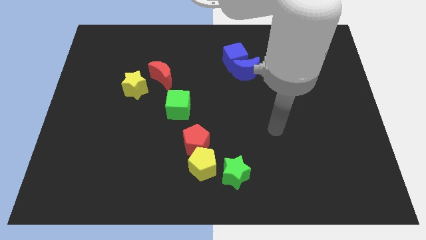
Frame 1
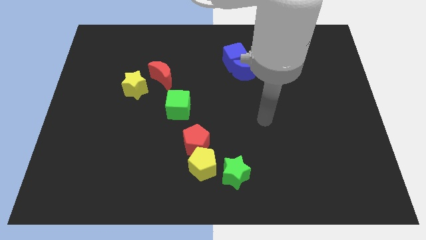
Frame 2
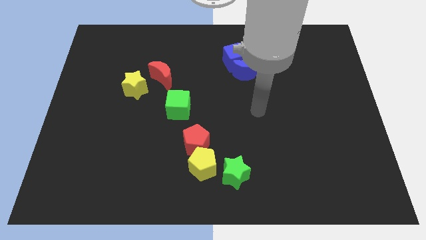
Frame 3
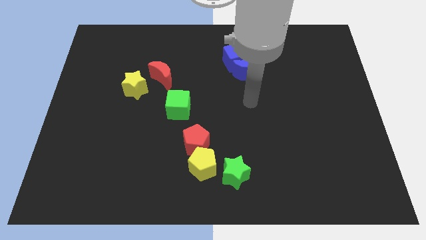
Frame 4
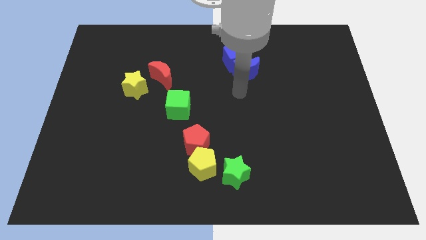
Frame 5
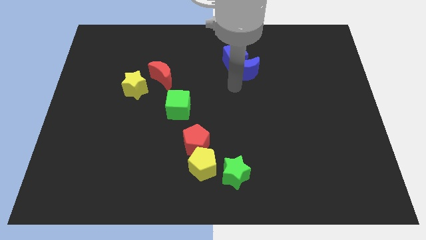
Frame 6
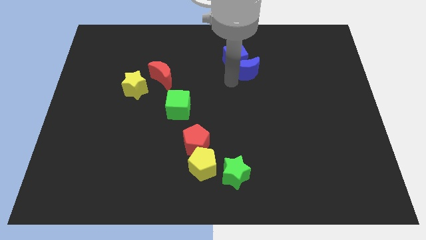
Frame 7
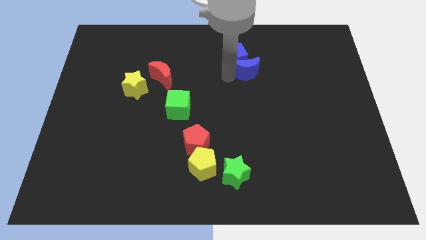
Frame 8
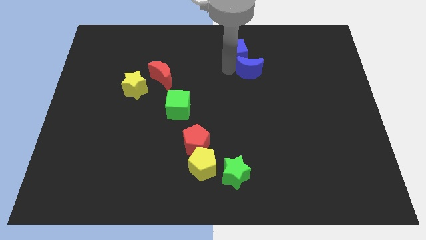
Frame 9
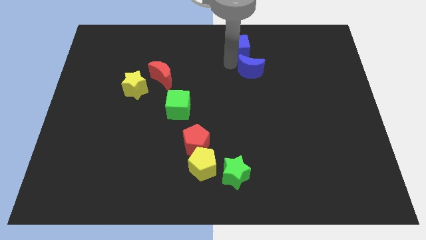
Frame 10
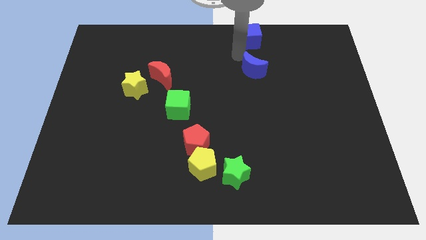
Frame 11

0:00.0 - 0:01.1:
move the blue moon away from the blue cube

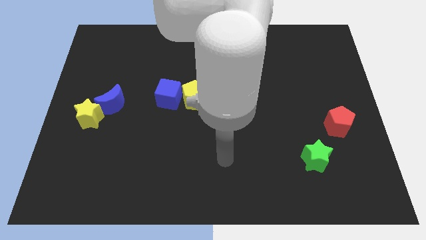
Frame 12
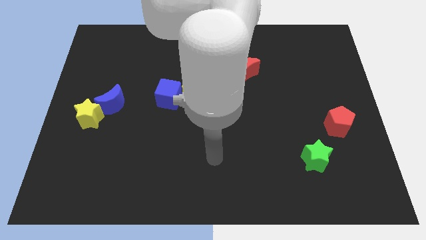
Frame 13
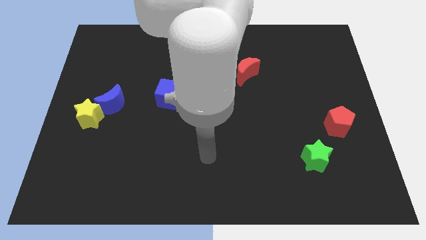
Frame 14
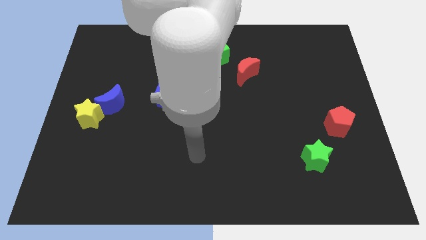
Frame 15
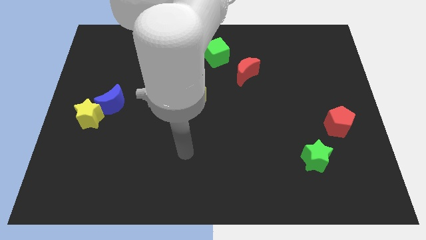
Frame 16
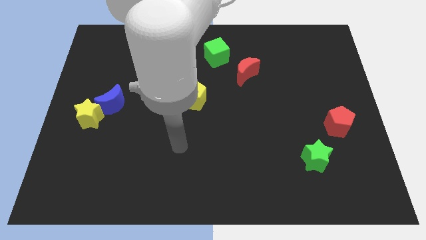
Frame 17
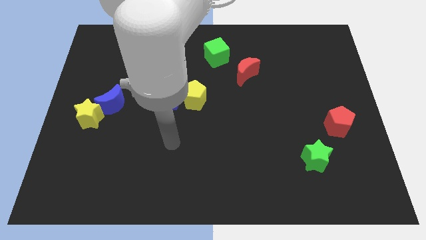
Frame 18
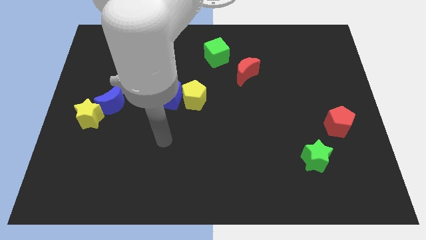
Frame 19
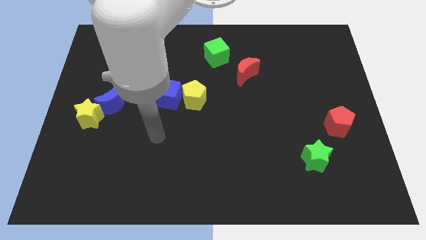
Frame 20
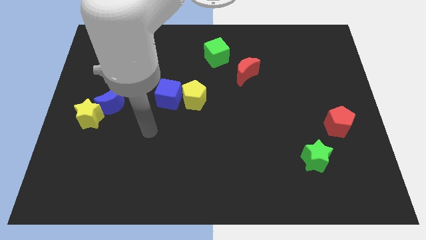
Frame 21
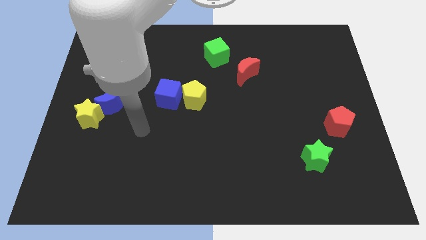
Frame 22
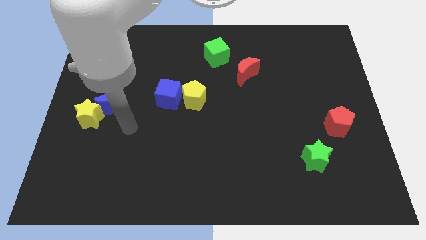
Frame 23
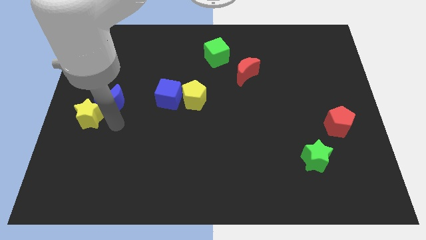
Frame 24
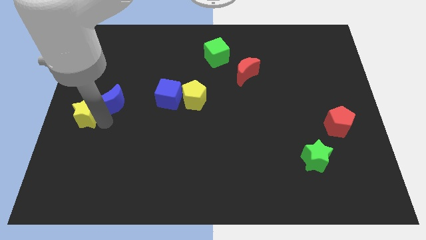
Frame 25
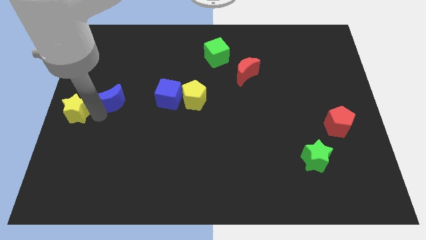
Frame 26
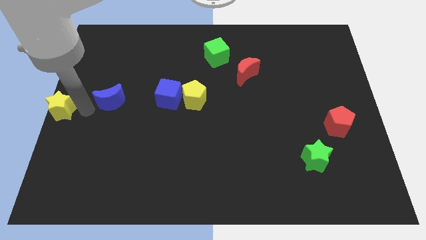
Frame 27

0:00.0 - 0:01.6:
separate the blue moon from the yellow star

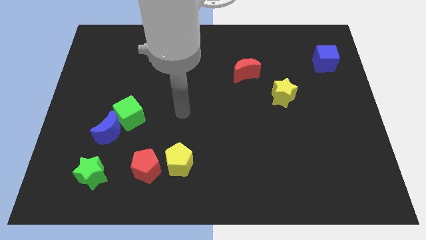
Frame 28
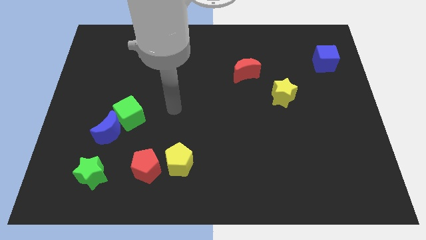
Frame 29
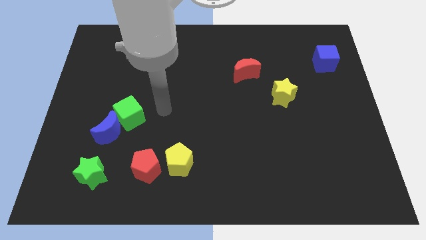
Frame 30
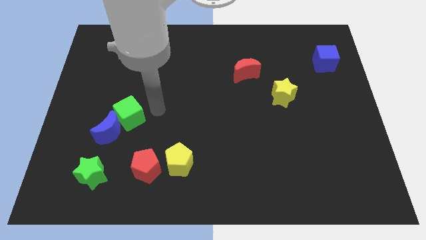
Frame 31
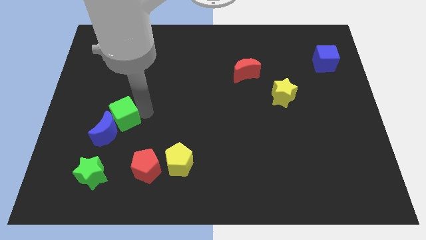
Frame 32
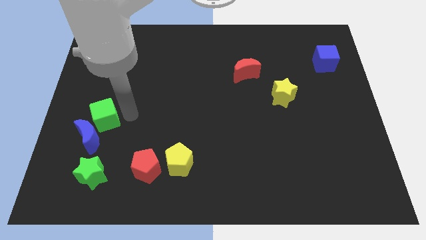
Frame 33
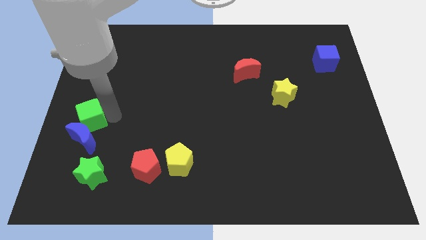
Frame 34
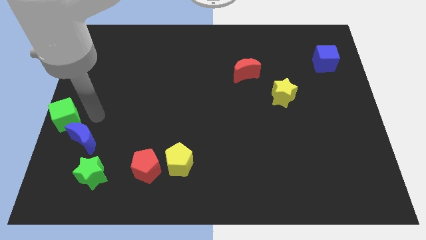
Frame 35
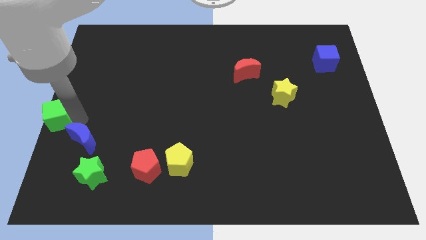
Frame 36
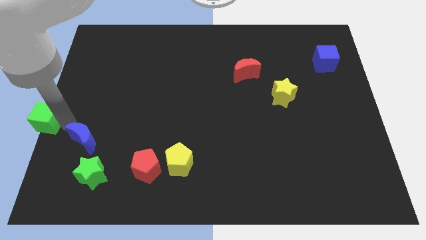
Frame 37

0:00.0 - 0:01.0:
pull the blue moon apart from the green cube

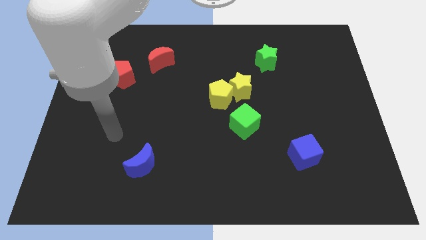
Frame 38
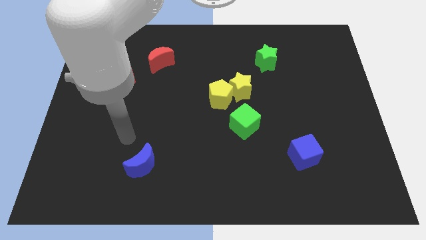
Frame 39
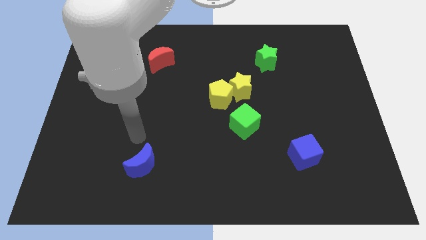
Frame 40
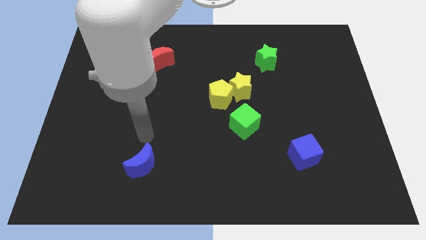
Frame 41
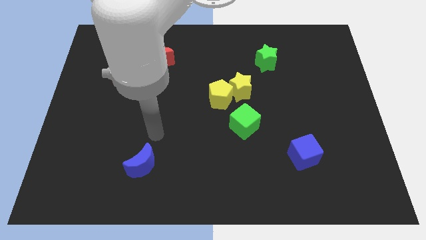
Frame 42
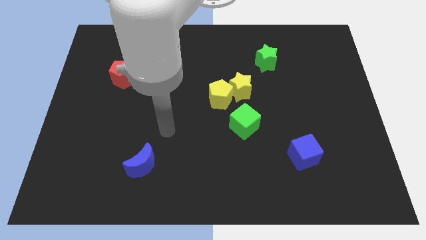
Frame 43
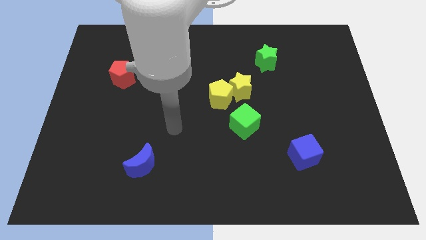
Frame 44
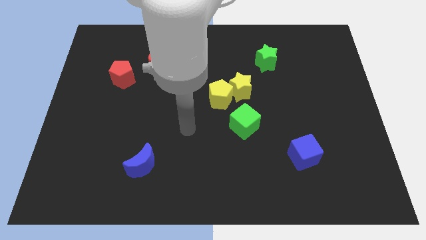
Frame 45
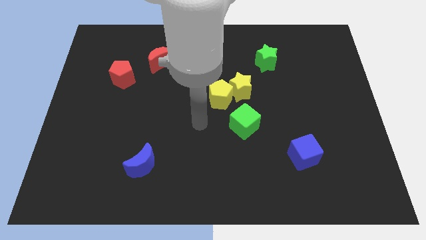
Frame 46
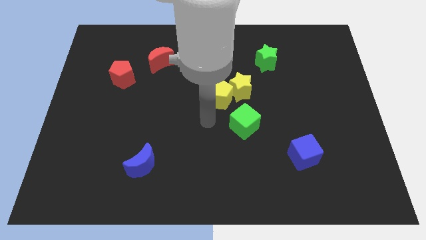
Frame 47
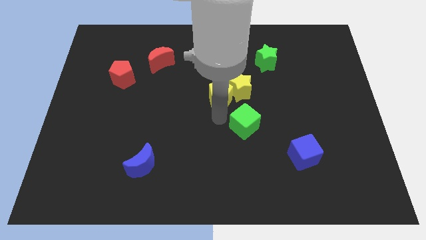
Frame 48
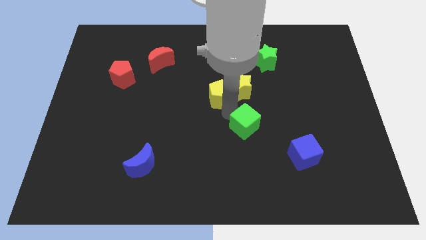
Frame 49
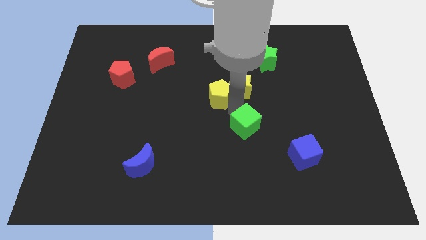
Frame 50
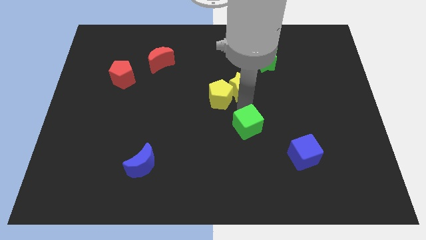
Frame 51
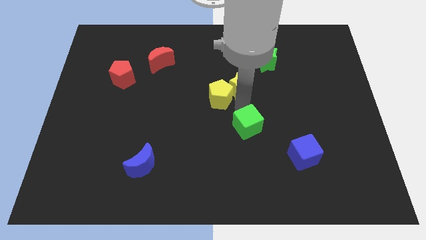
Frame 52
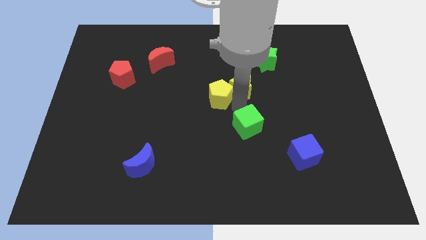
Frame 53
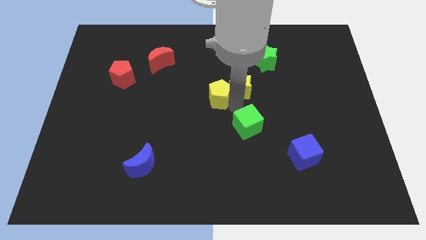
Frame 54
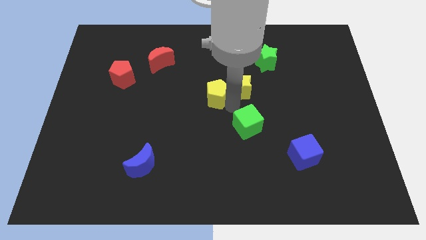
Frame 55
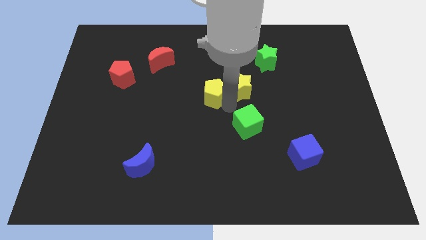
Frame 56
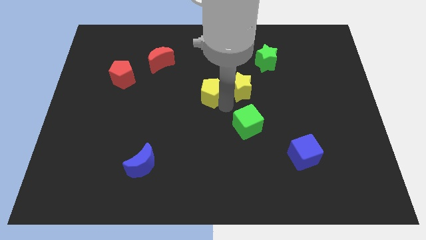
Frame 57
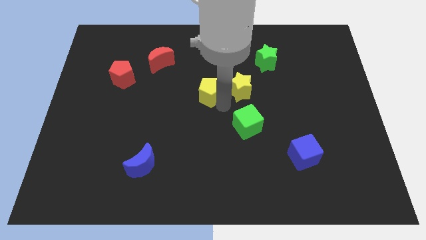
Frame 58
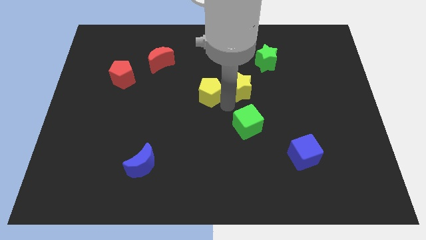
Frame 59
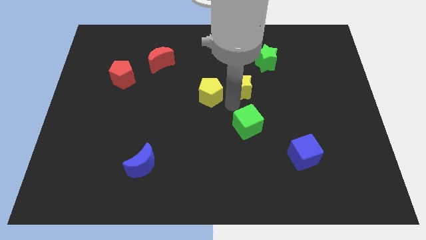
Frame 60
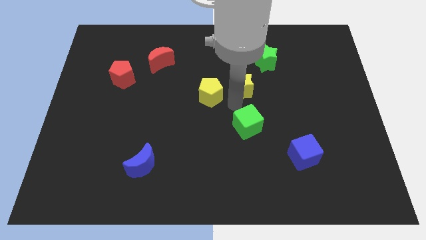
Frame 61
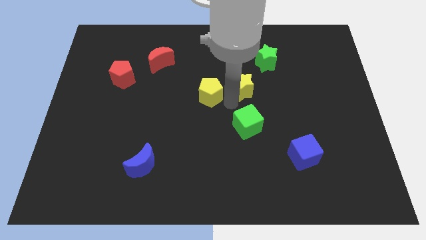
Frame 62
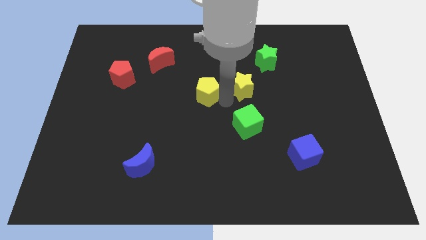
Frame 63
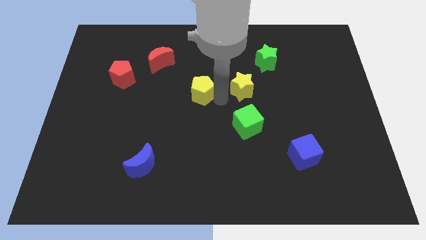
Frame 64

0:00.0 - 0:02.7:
move the yellow pentagon away from the yellow star and green cube

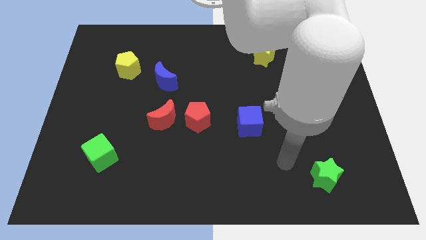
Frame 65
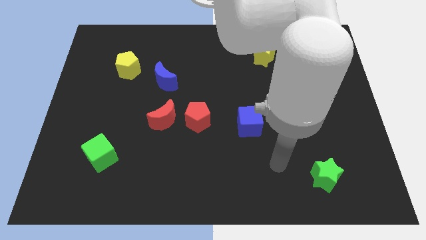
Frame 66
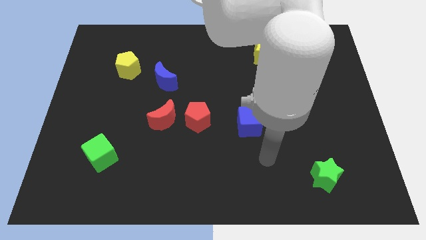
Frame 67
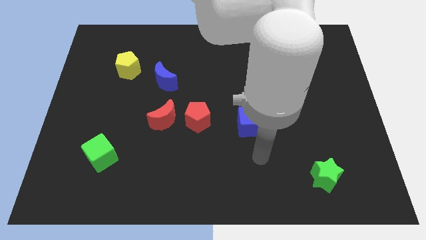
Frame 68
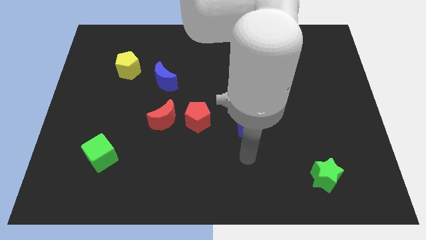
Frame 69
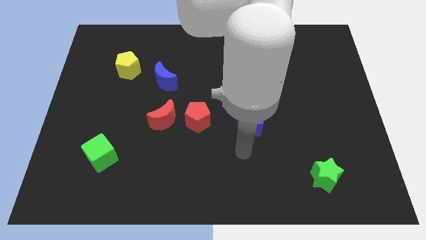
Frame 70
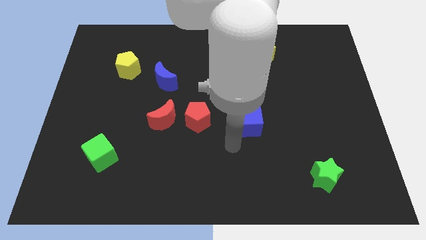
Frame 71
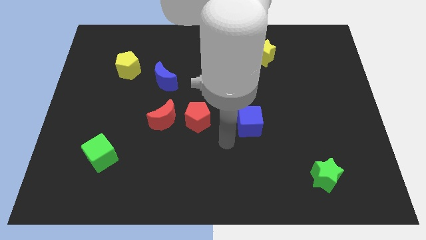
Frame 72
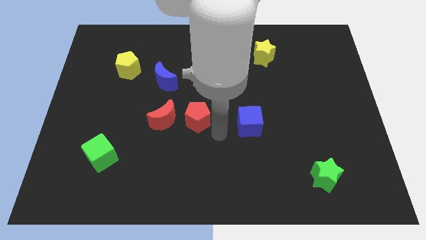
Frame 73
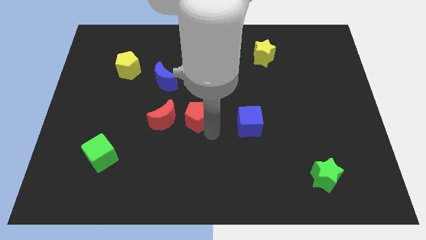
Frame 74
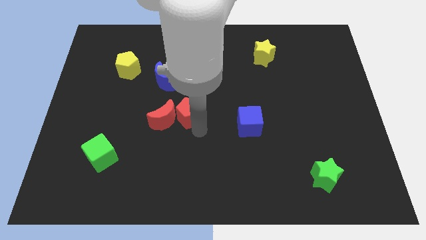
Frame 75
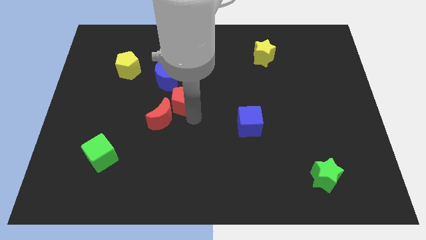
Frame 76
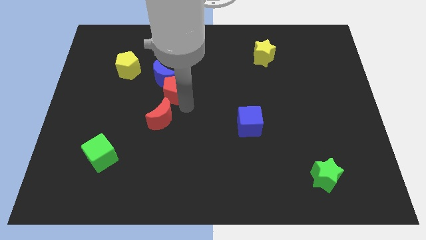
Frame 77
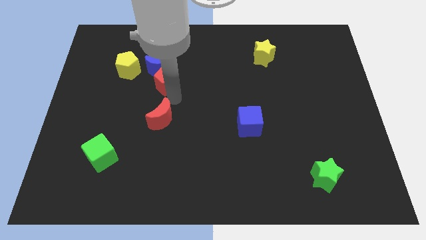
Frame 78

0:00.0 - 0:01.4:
move the red moon away from the red pentagon

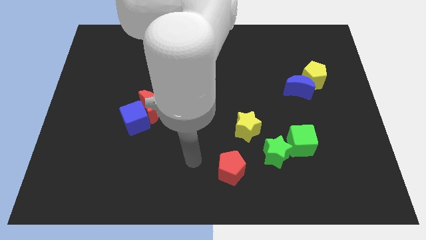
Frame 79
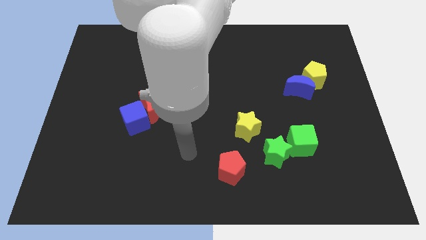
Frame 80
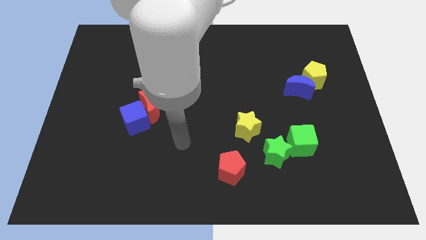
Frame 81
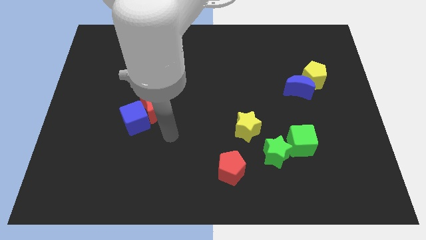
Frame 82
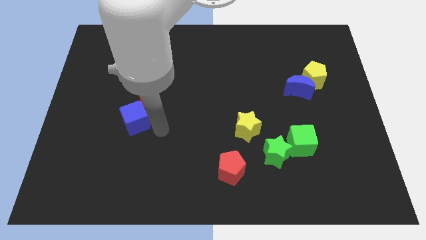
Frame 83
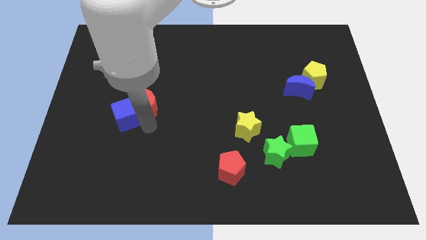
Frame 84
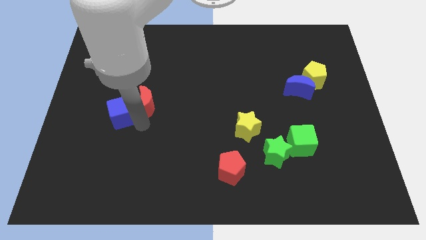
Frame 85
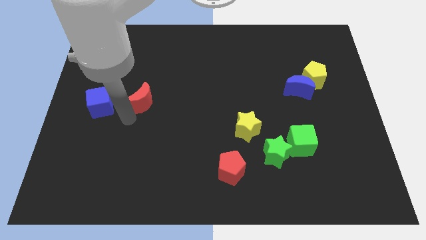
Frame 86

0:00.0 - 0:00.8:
separate the red moon from the blue cube

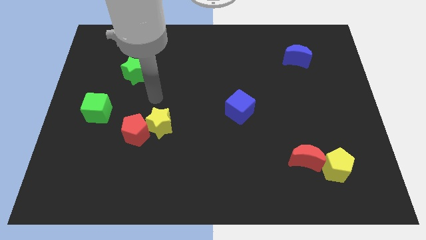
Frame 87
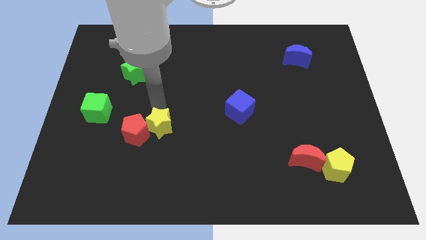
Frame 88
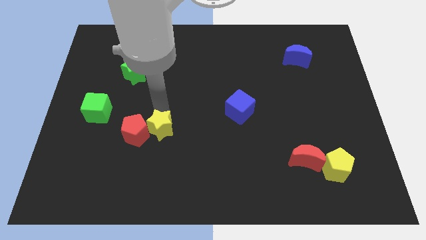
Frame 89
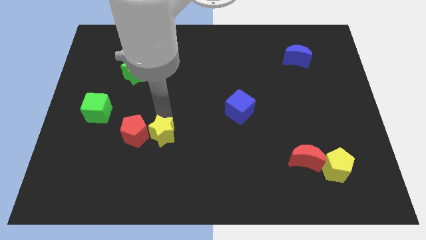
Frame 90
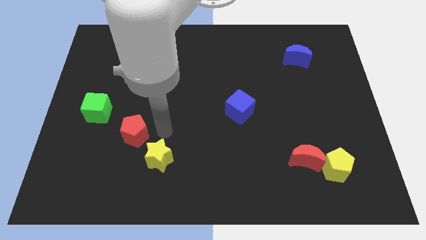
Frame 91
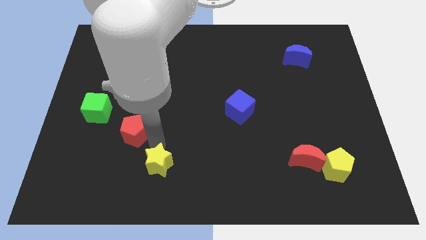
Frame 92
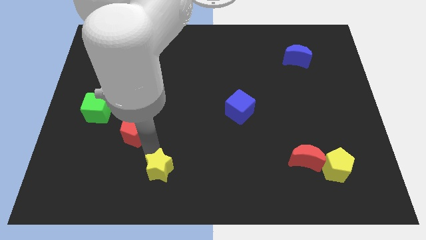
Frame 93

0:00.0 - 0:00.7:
move the red pentagon away from the yellow star
